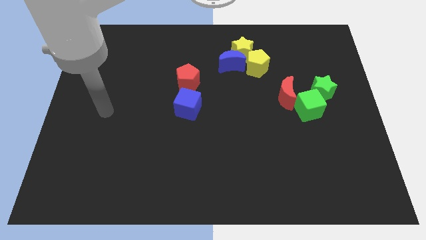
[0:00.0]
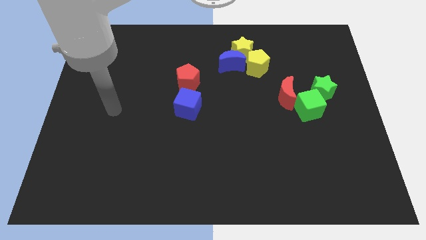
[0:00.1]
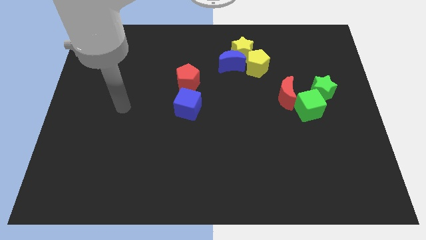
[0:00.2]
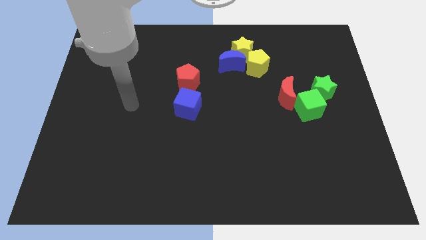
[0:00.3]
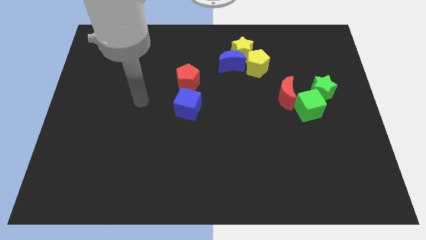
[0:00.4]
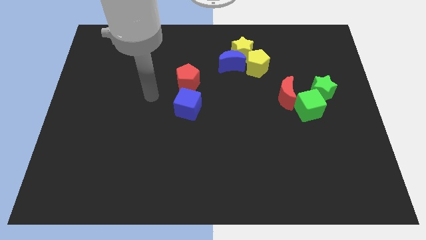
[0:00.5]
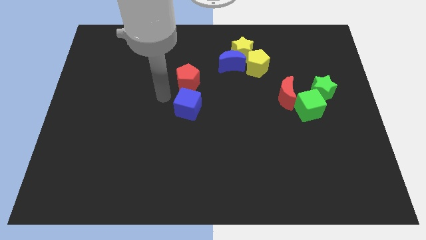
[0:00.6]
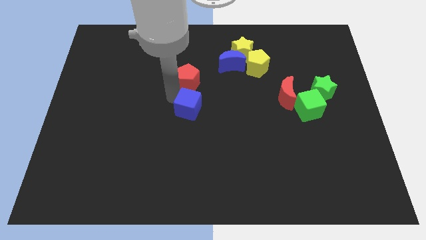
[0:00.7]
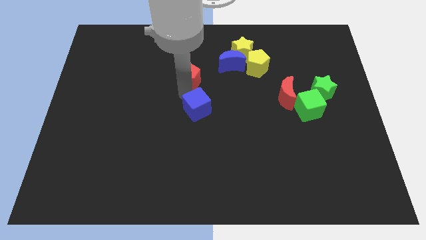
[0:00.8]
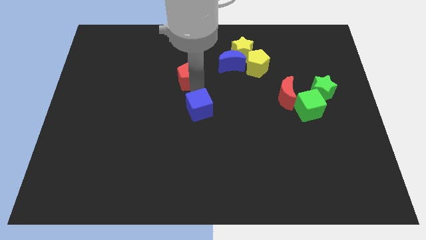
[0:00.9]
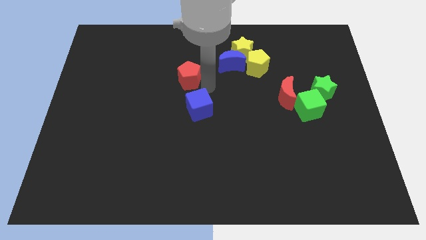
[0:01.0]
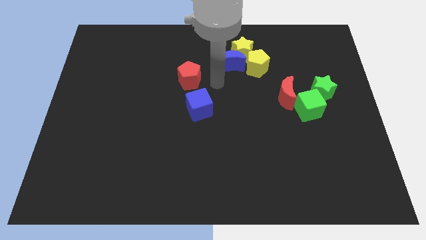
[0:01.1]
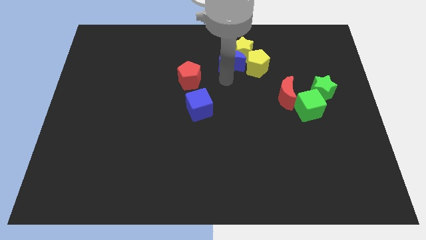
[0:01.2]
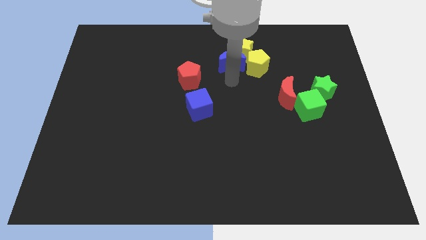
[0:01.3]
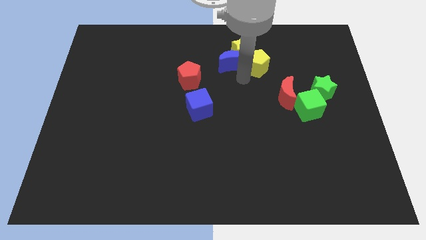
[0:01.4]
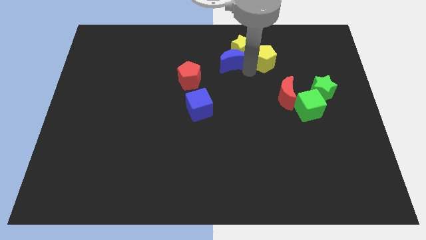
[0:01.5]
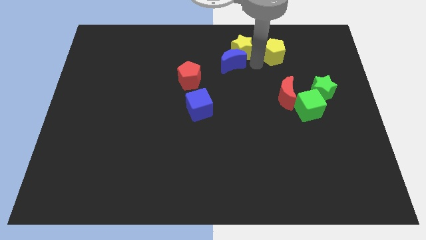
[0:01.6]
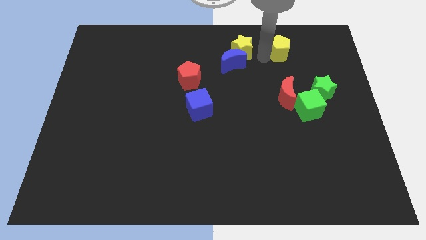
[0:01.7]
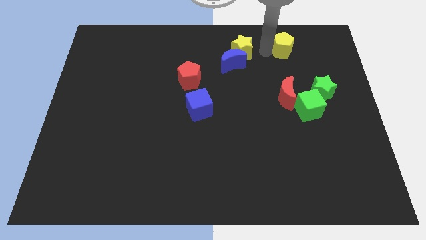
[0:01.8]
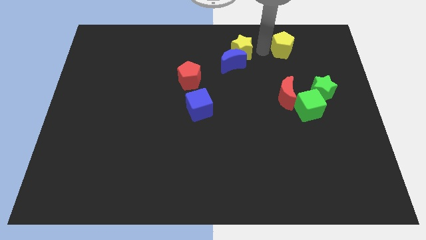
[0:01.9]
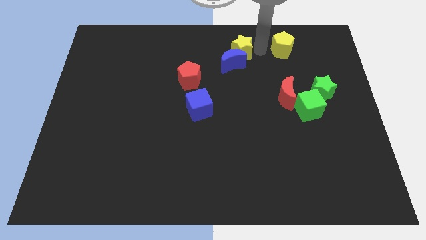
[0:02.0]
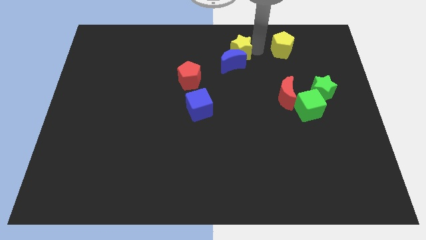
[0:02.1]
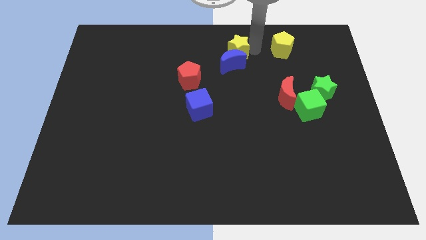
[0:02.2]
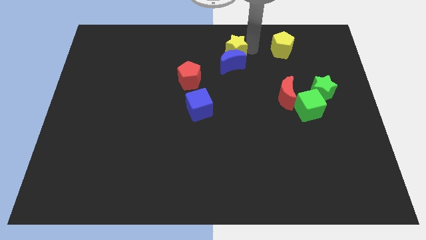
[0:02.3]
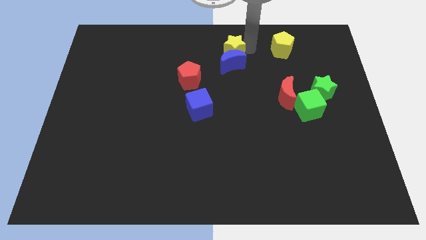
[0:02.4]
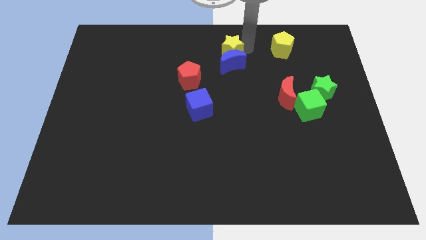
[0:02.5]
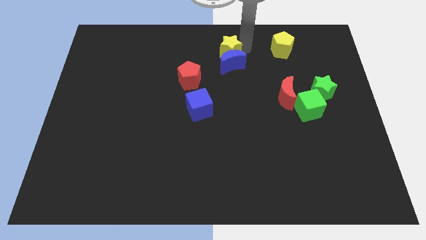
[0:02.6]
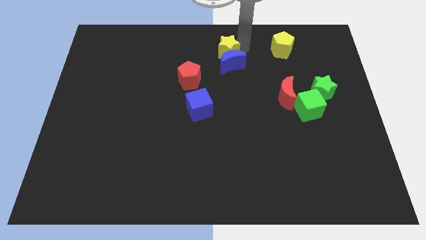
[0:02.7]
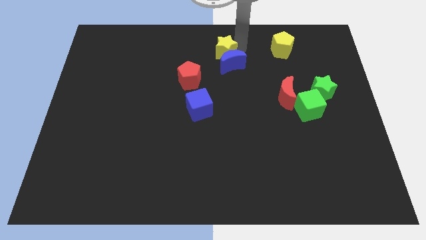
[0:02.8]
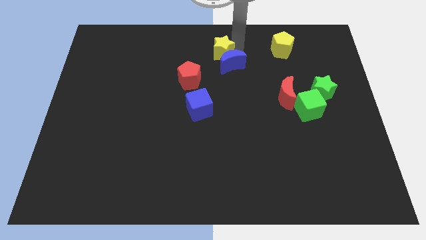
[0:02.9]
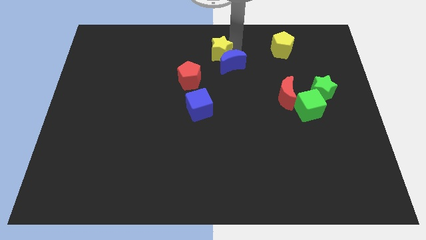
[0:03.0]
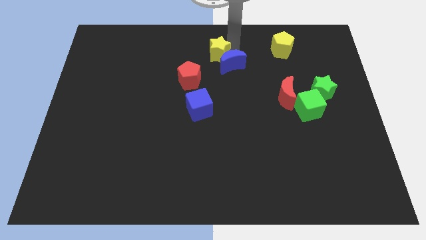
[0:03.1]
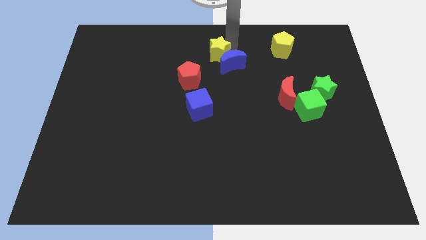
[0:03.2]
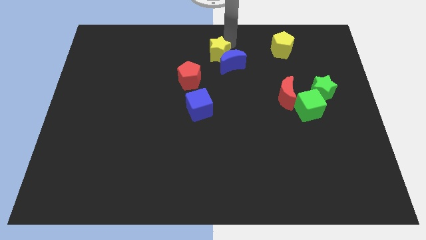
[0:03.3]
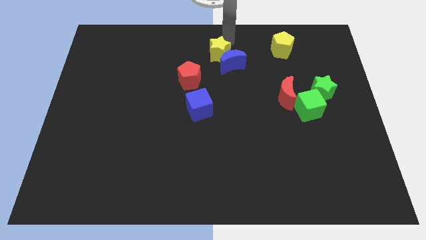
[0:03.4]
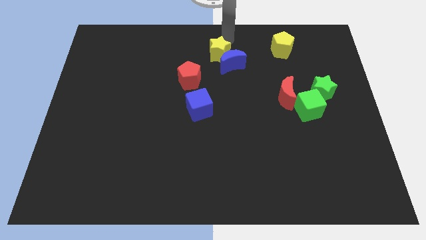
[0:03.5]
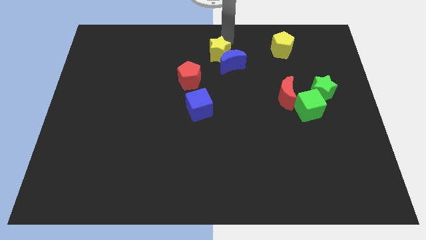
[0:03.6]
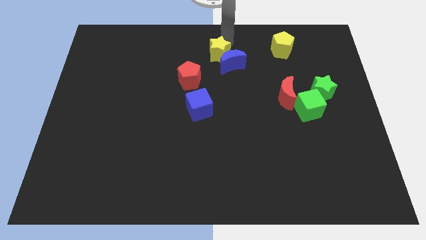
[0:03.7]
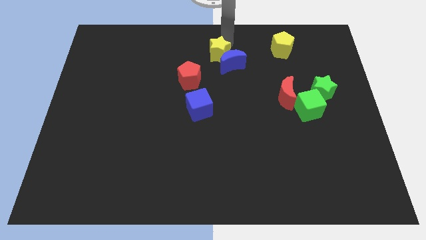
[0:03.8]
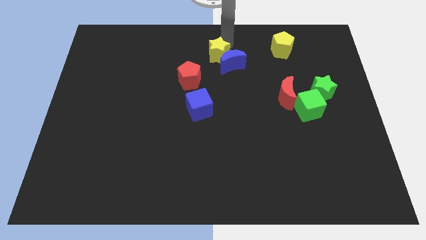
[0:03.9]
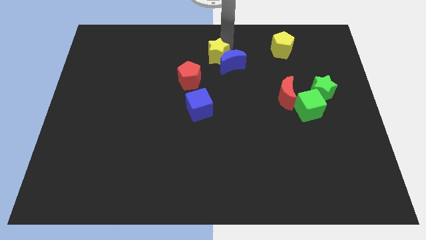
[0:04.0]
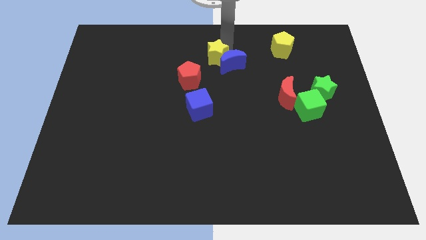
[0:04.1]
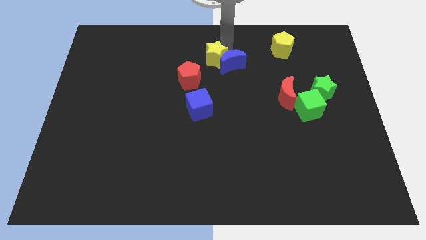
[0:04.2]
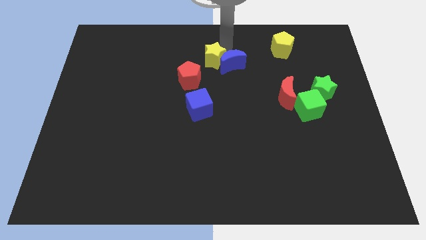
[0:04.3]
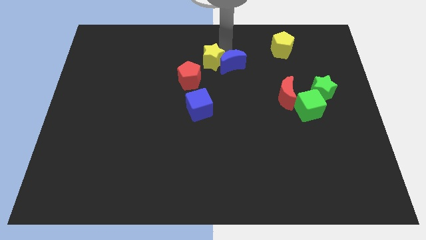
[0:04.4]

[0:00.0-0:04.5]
slightly push the yellow star downwards and to the left diagonally

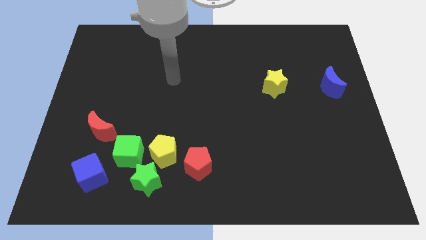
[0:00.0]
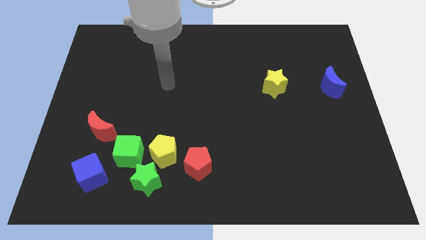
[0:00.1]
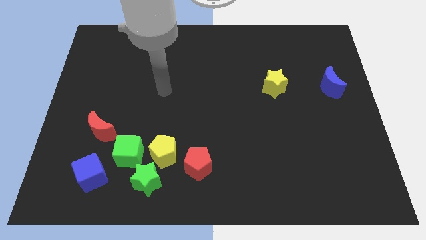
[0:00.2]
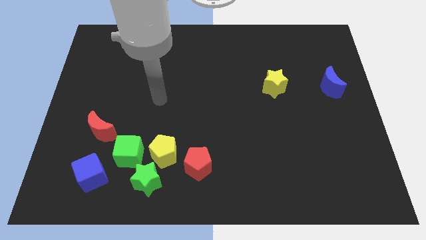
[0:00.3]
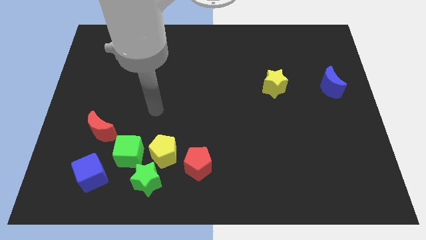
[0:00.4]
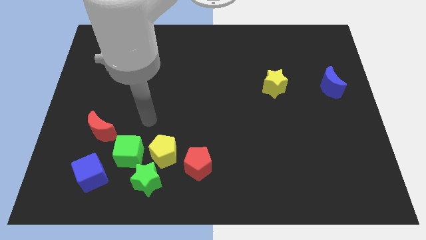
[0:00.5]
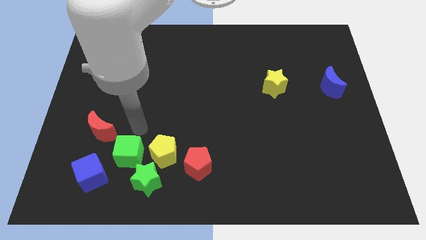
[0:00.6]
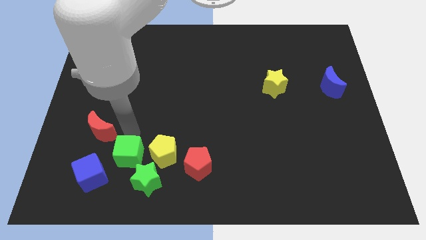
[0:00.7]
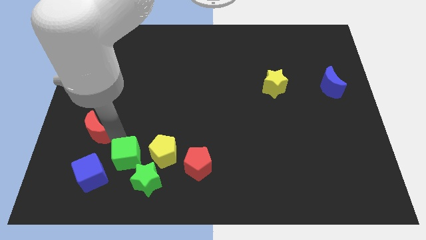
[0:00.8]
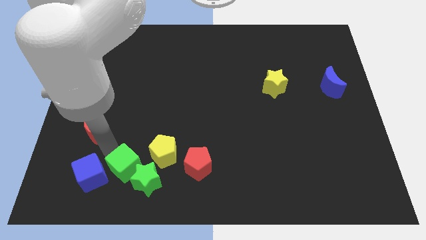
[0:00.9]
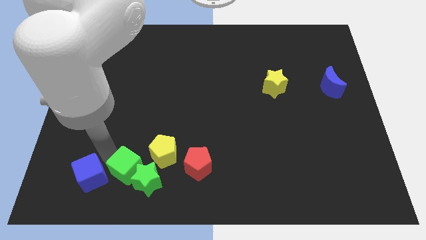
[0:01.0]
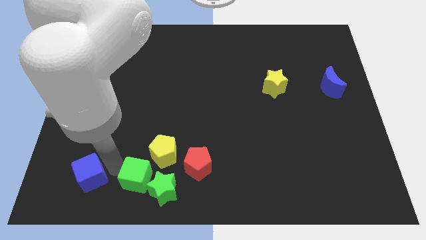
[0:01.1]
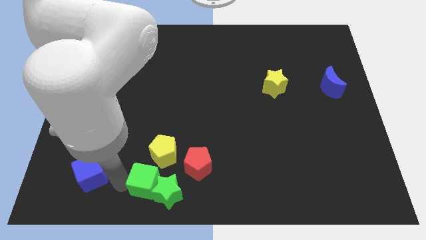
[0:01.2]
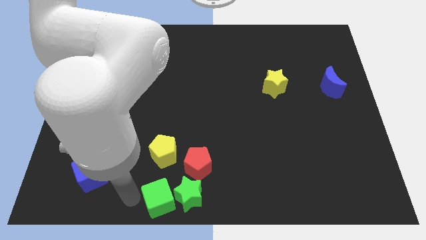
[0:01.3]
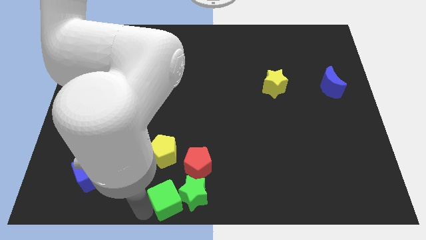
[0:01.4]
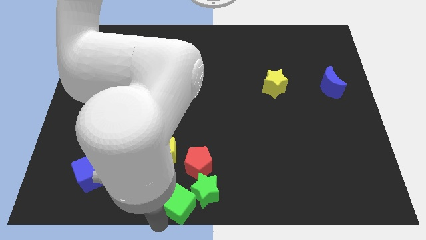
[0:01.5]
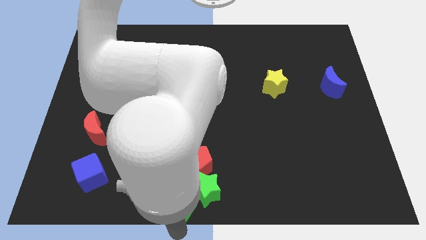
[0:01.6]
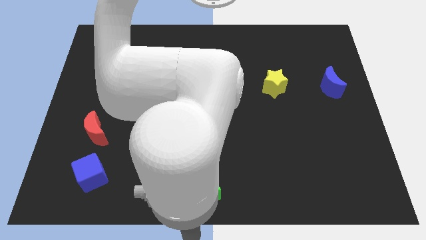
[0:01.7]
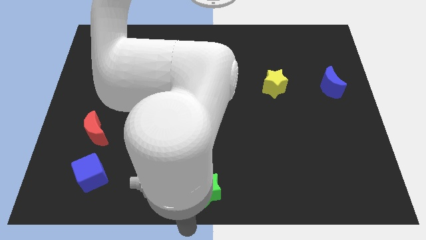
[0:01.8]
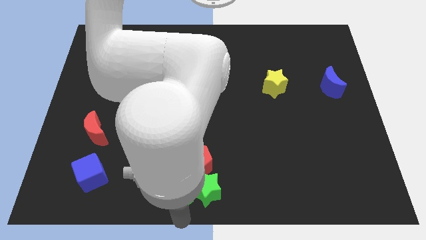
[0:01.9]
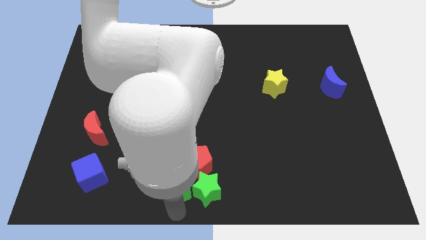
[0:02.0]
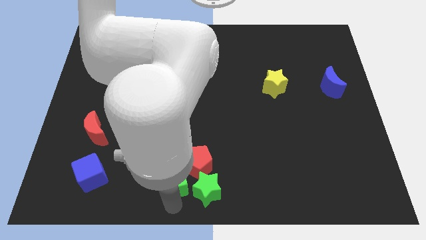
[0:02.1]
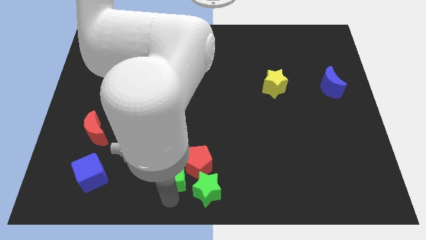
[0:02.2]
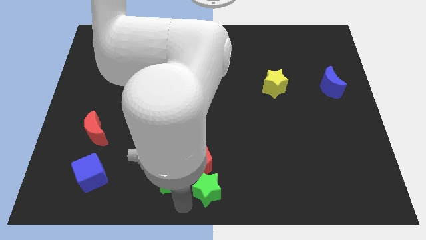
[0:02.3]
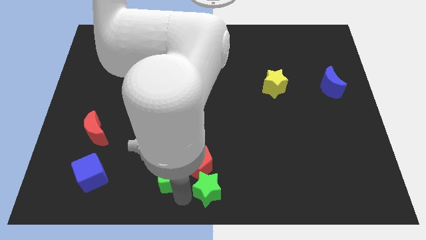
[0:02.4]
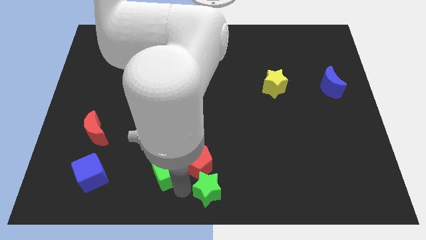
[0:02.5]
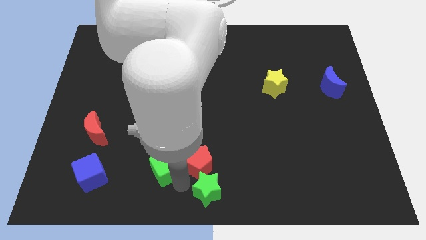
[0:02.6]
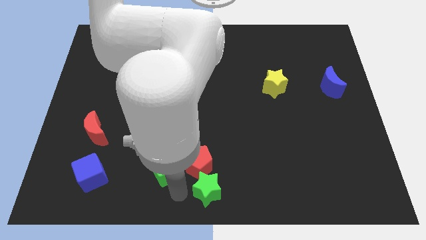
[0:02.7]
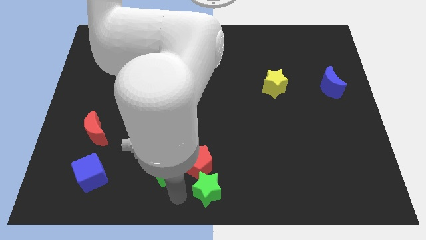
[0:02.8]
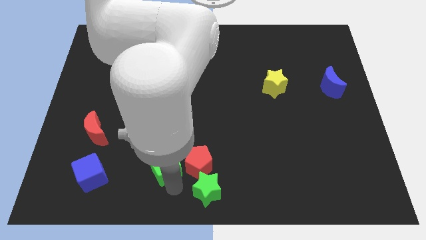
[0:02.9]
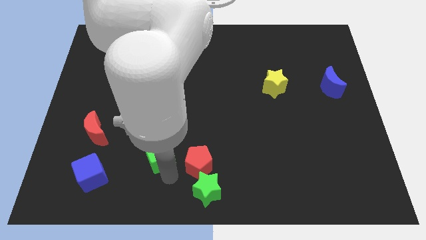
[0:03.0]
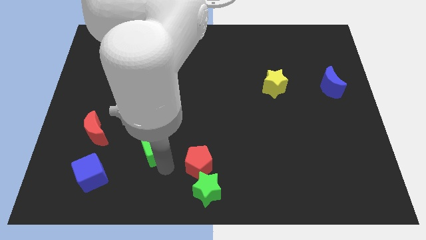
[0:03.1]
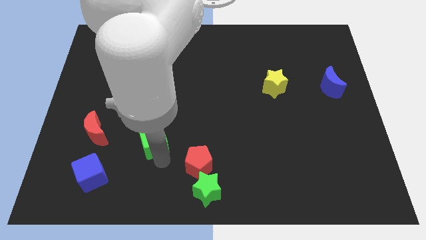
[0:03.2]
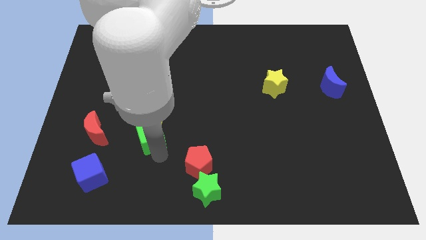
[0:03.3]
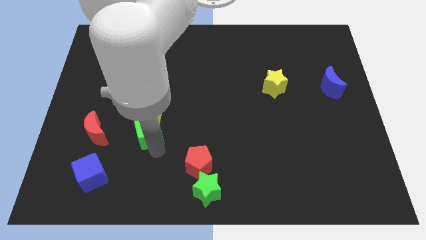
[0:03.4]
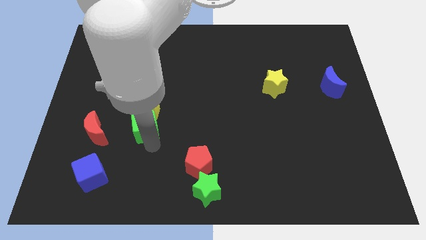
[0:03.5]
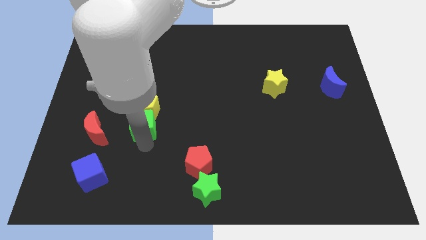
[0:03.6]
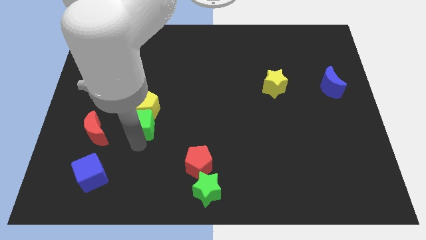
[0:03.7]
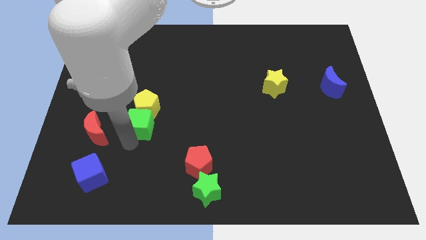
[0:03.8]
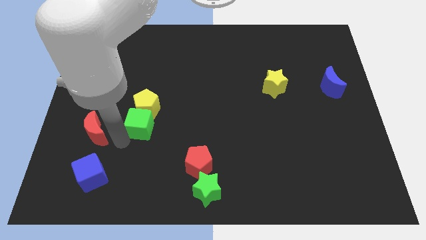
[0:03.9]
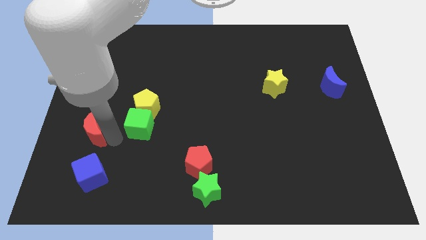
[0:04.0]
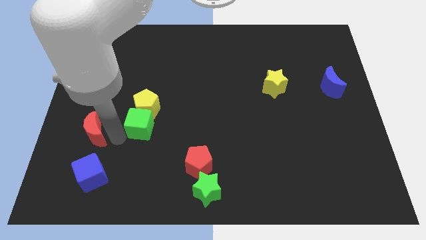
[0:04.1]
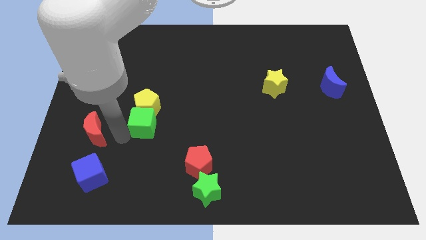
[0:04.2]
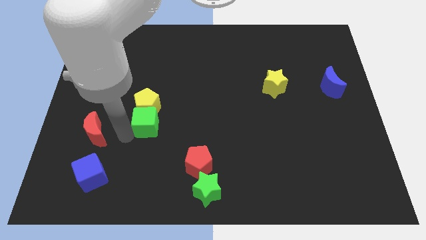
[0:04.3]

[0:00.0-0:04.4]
move the green cube slightly diagonally up and right
